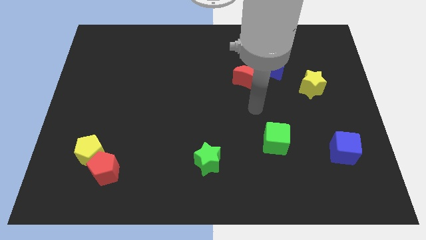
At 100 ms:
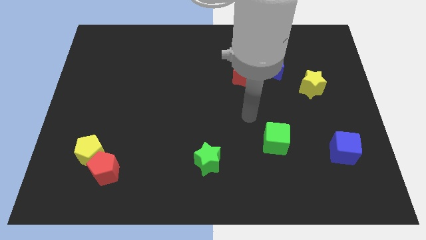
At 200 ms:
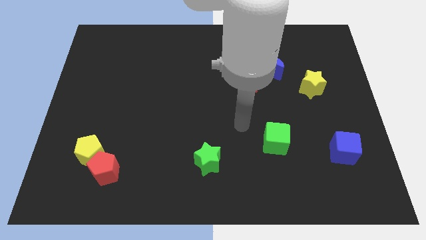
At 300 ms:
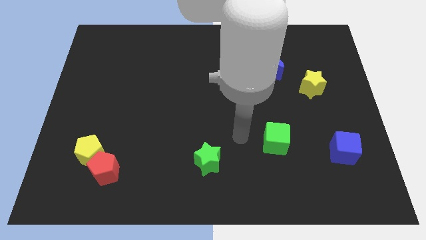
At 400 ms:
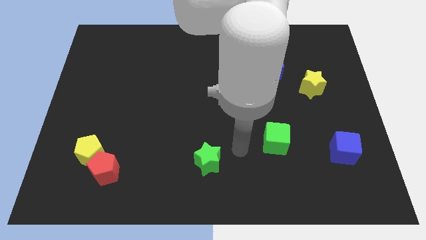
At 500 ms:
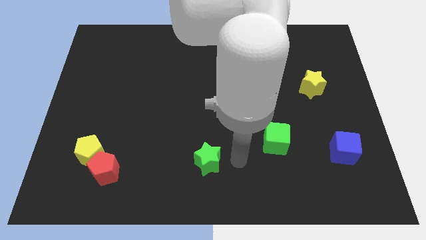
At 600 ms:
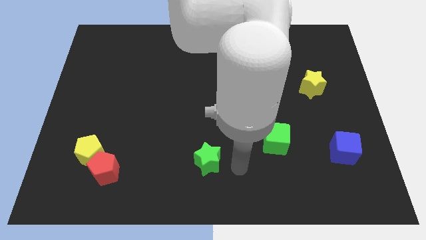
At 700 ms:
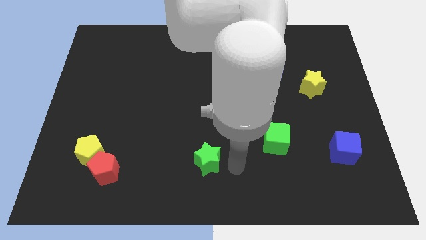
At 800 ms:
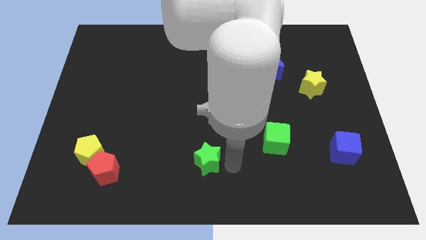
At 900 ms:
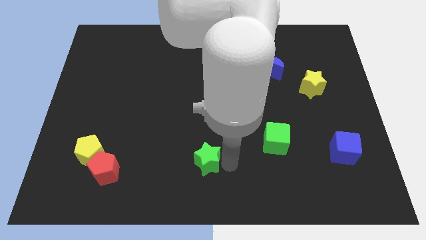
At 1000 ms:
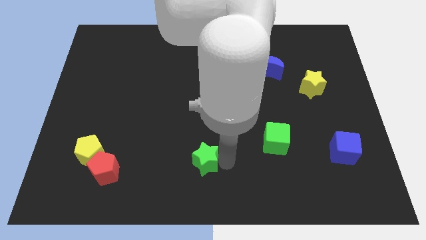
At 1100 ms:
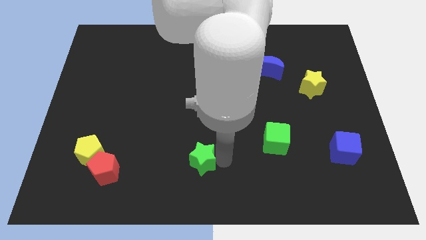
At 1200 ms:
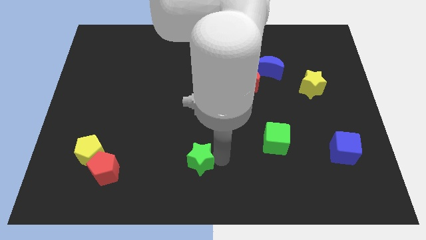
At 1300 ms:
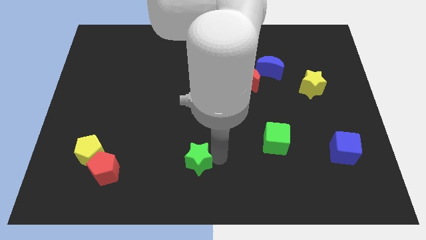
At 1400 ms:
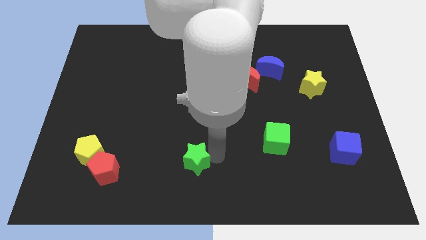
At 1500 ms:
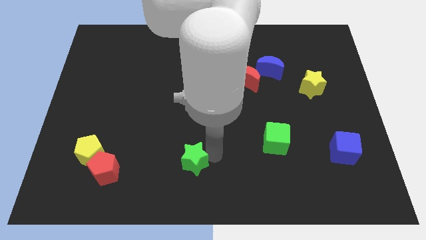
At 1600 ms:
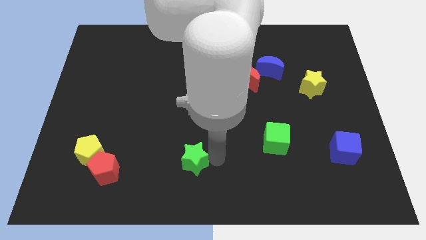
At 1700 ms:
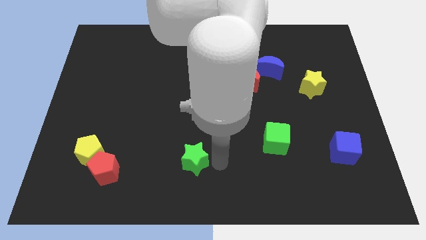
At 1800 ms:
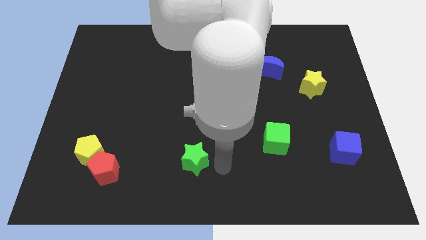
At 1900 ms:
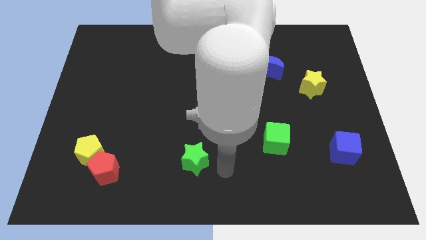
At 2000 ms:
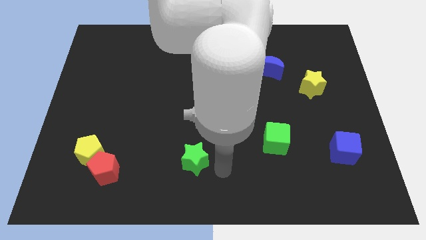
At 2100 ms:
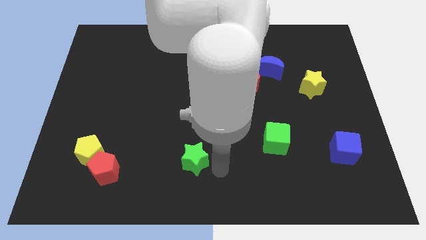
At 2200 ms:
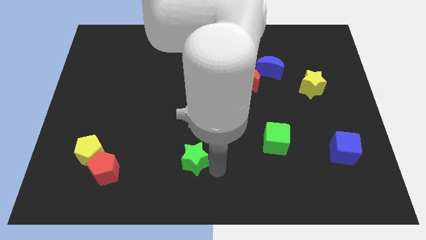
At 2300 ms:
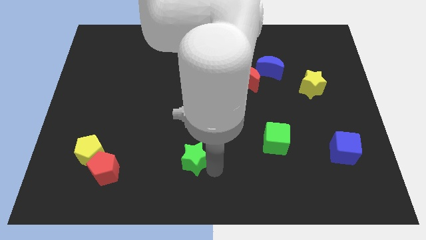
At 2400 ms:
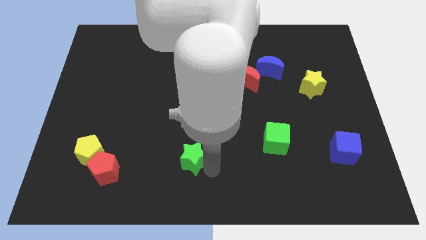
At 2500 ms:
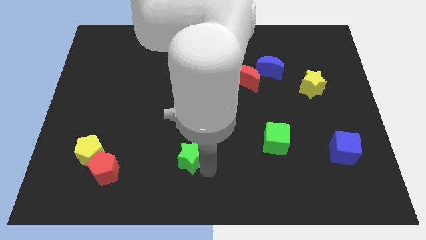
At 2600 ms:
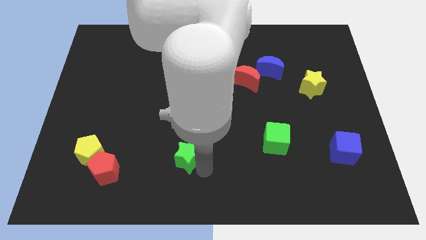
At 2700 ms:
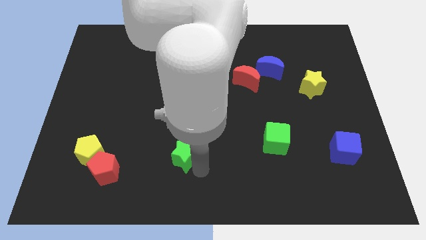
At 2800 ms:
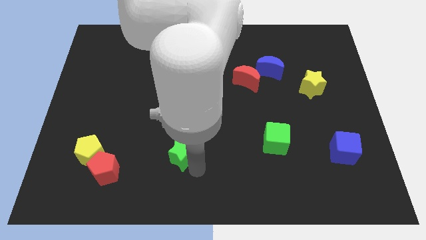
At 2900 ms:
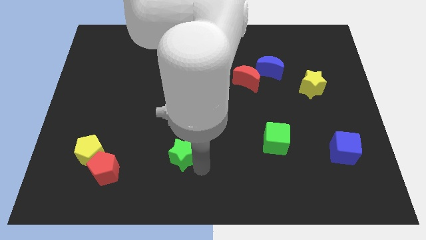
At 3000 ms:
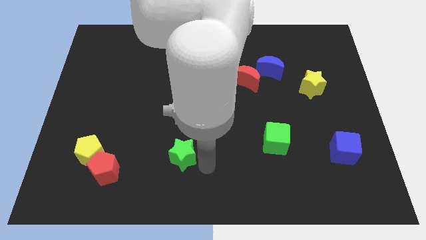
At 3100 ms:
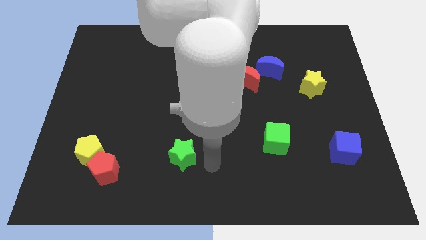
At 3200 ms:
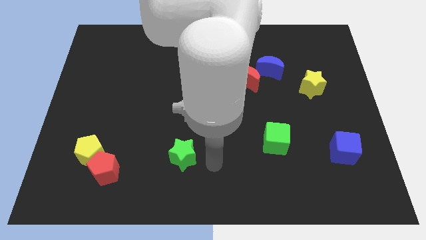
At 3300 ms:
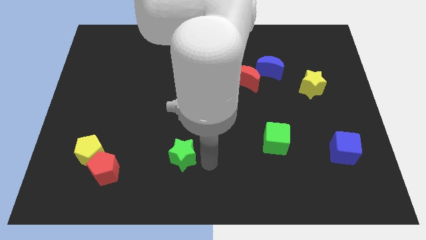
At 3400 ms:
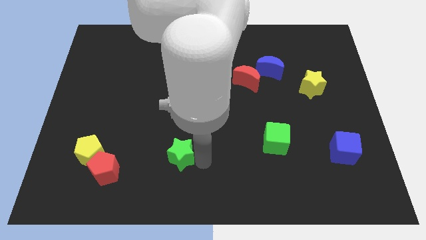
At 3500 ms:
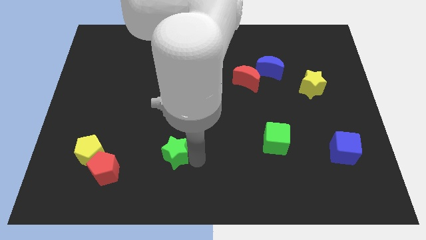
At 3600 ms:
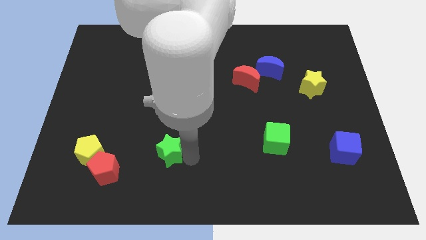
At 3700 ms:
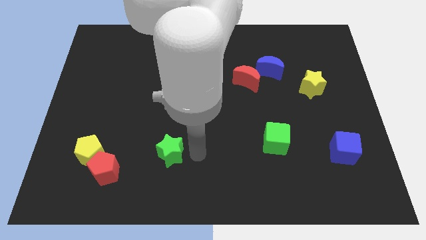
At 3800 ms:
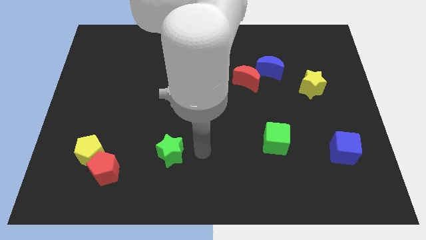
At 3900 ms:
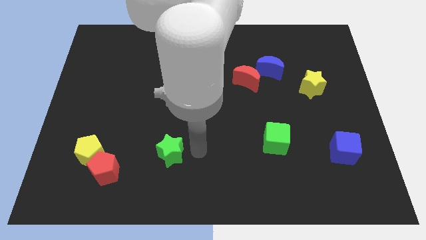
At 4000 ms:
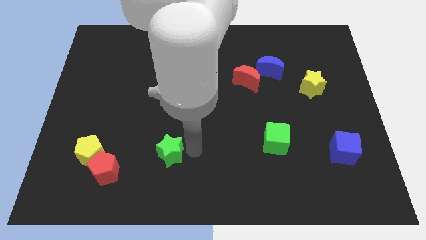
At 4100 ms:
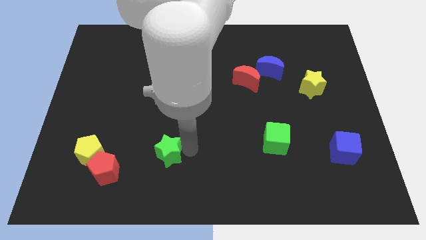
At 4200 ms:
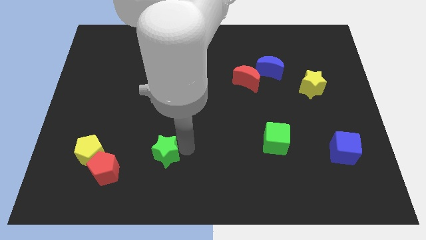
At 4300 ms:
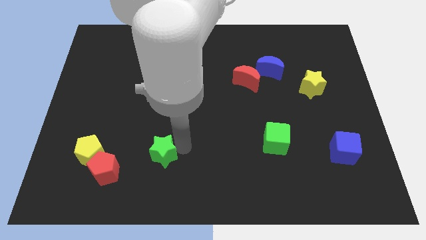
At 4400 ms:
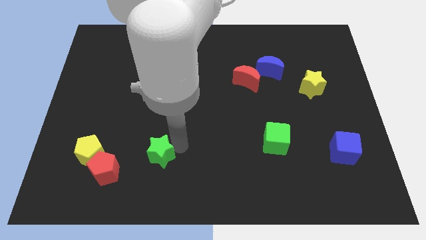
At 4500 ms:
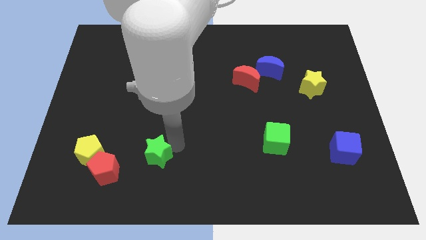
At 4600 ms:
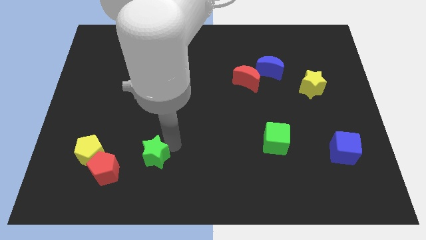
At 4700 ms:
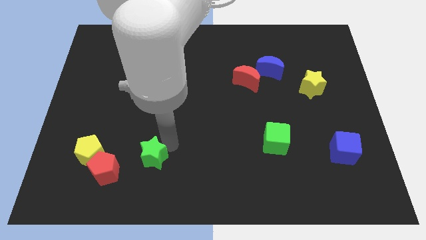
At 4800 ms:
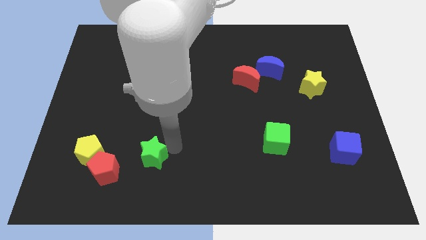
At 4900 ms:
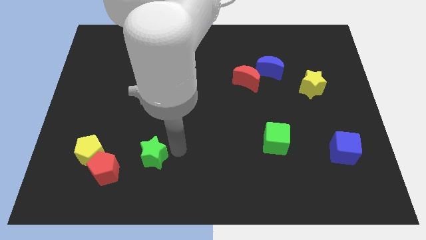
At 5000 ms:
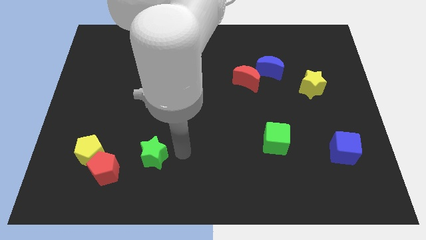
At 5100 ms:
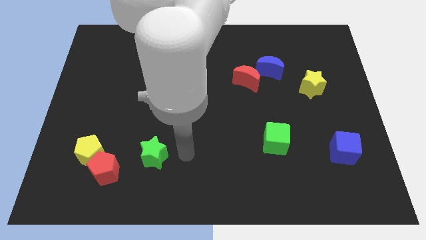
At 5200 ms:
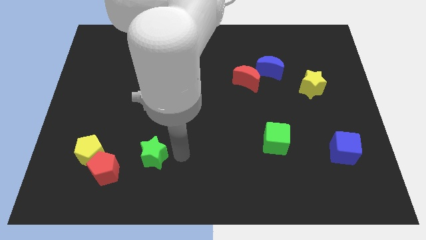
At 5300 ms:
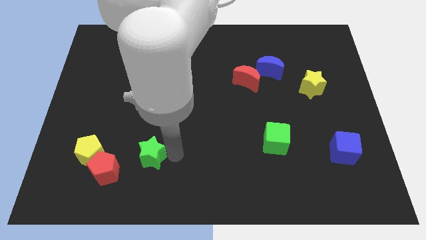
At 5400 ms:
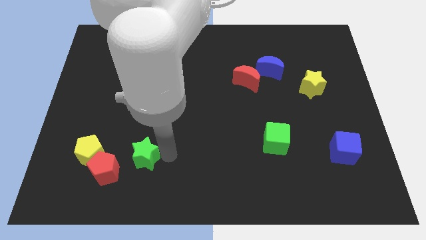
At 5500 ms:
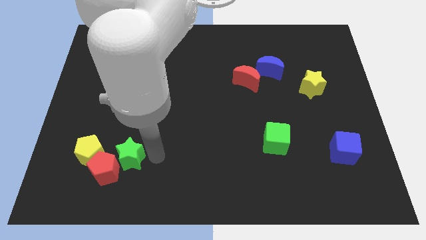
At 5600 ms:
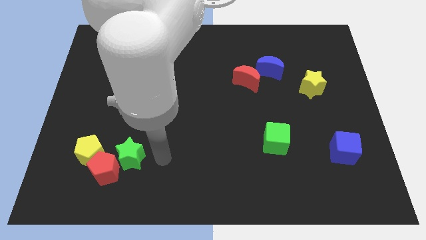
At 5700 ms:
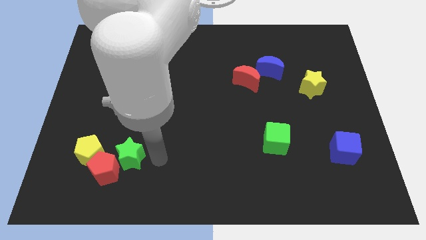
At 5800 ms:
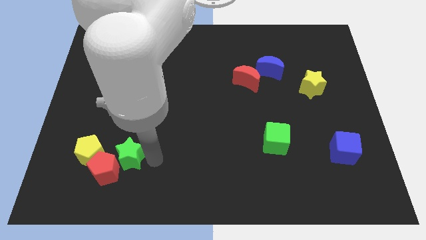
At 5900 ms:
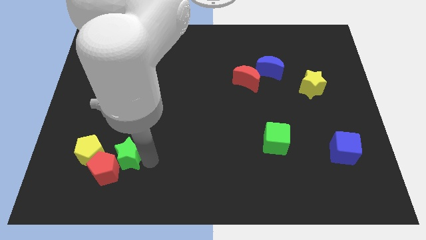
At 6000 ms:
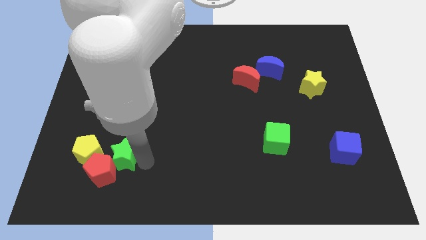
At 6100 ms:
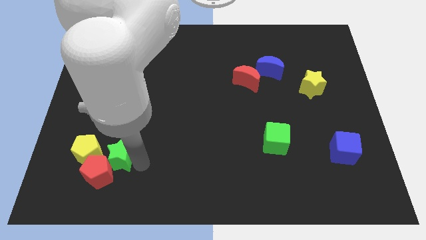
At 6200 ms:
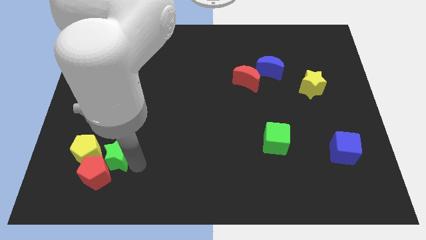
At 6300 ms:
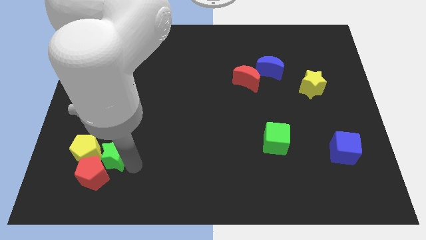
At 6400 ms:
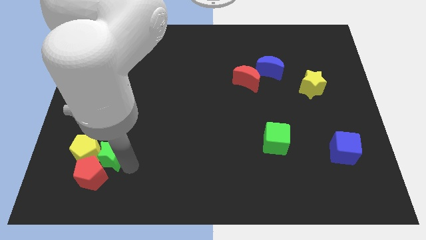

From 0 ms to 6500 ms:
slide the green star next to the yellow pentagon

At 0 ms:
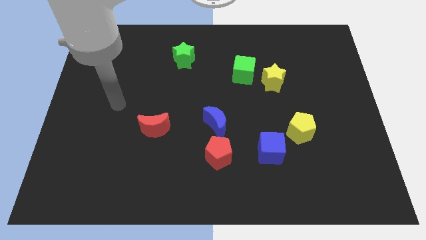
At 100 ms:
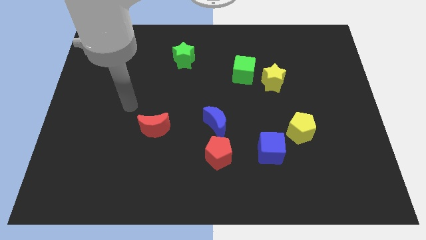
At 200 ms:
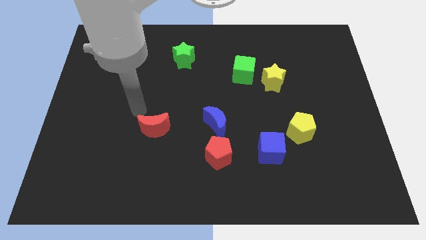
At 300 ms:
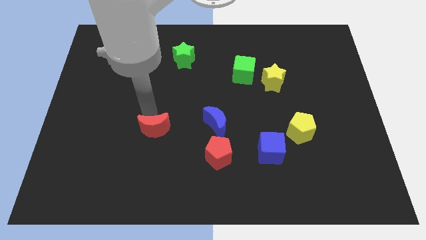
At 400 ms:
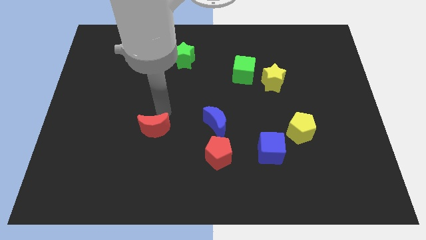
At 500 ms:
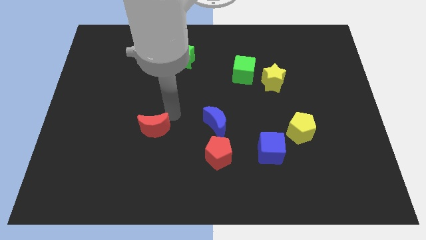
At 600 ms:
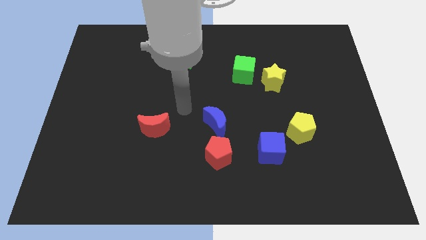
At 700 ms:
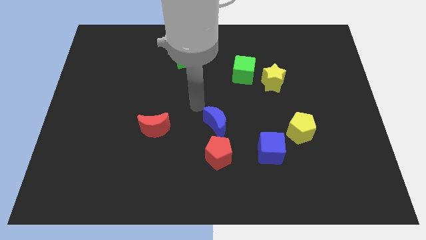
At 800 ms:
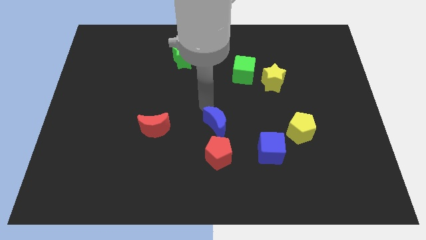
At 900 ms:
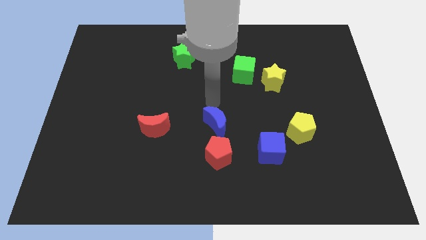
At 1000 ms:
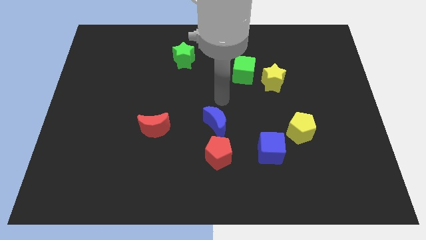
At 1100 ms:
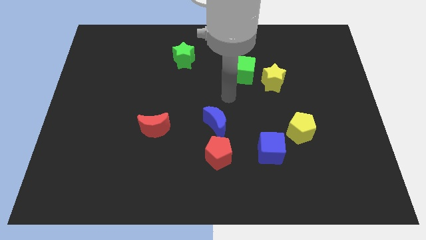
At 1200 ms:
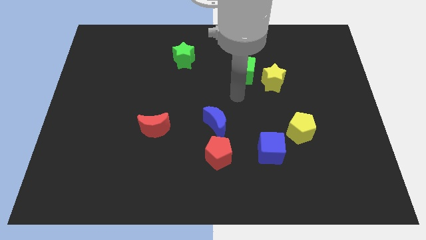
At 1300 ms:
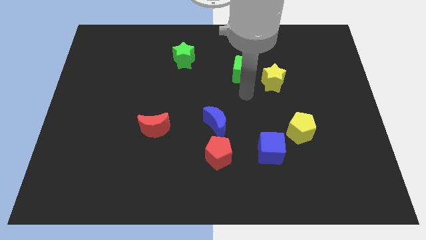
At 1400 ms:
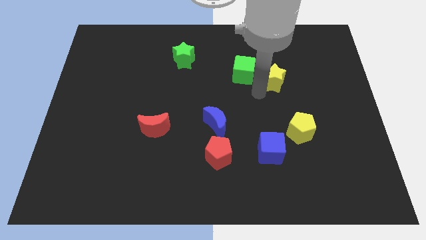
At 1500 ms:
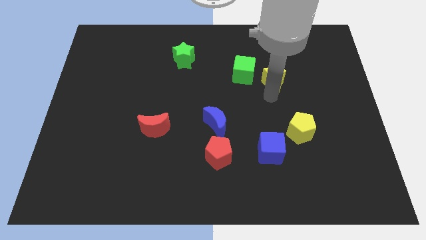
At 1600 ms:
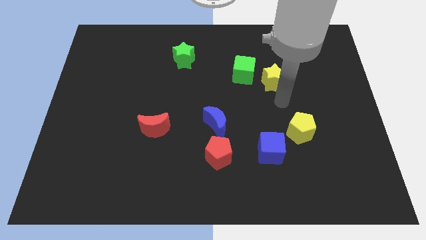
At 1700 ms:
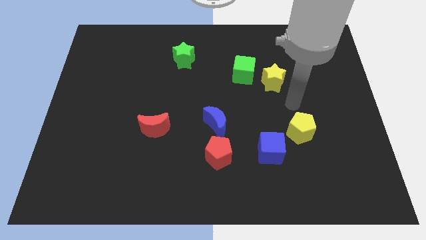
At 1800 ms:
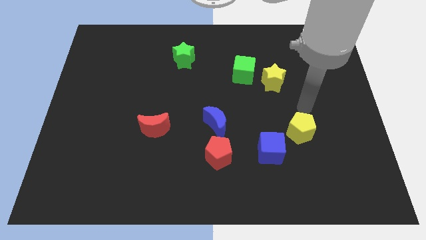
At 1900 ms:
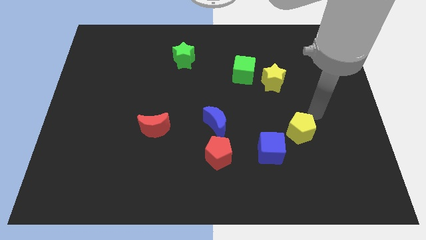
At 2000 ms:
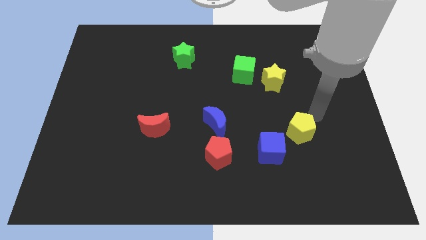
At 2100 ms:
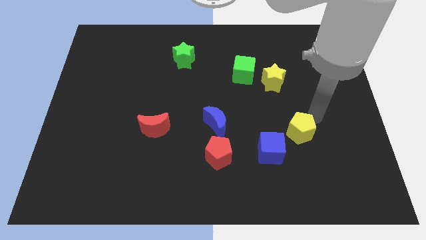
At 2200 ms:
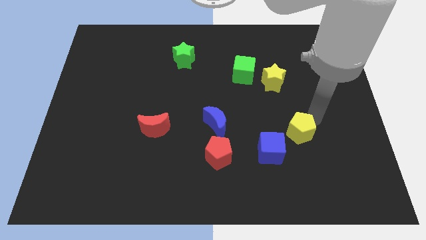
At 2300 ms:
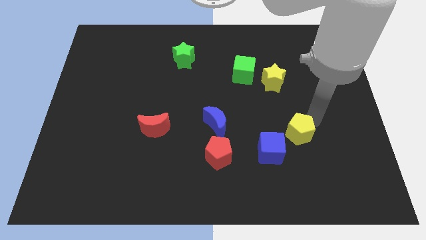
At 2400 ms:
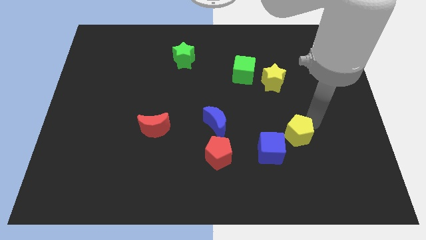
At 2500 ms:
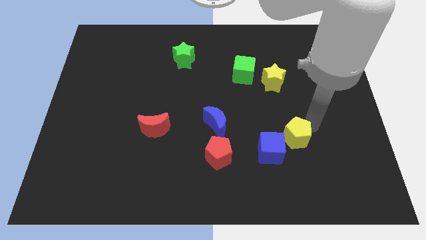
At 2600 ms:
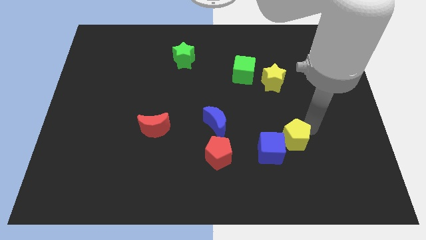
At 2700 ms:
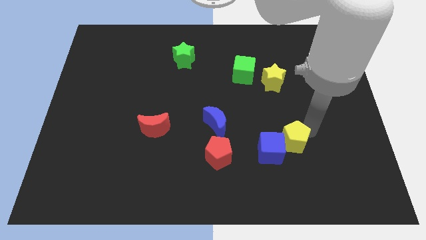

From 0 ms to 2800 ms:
slide the yellow pentagon close to the blue cube
